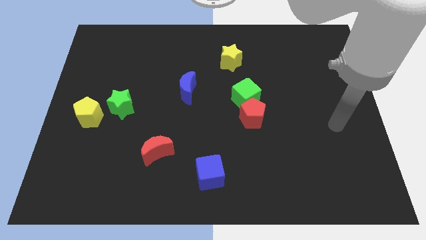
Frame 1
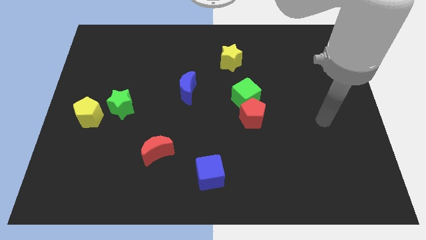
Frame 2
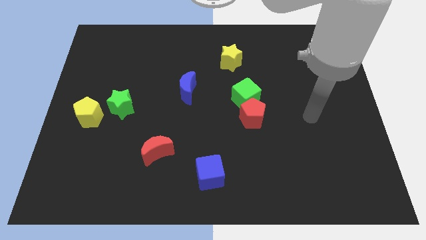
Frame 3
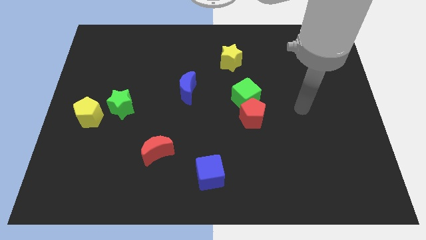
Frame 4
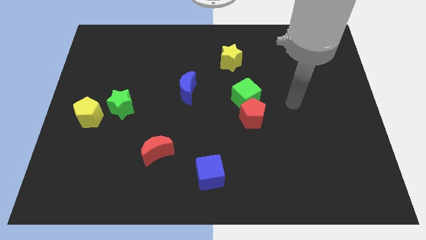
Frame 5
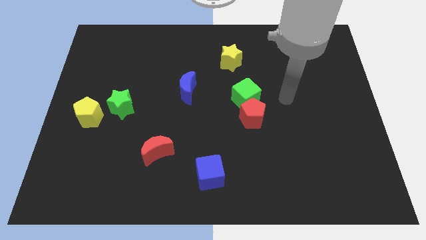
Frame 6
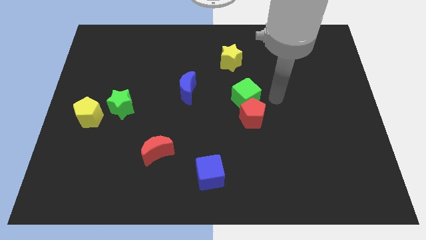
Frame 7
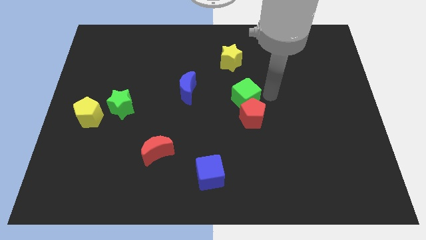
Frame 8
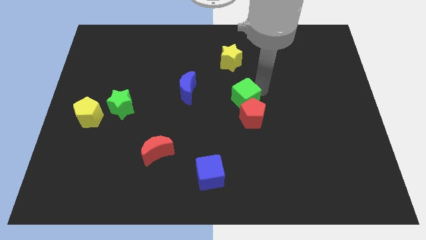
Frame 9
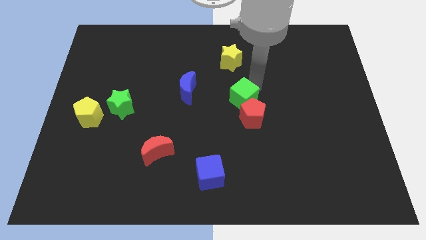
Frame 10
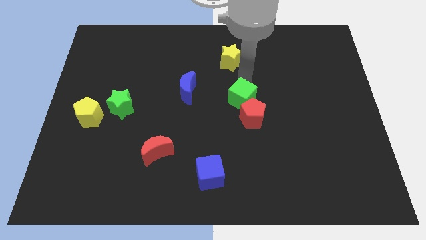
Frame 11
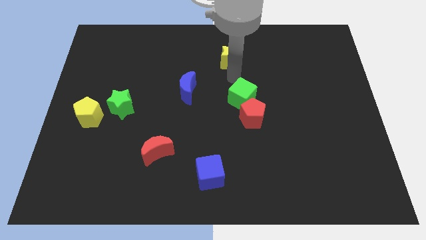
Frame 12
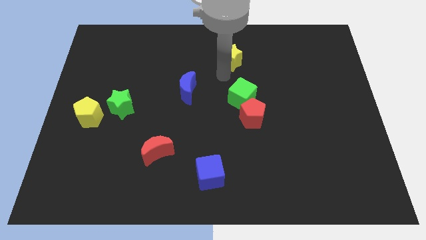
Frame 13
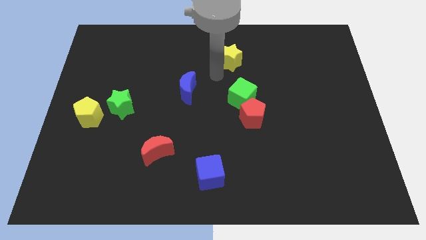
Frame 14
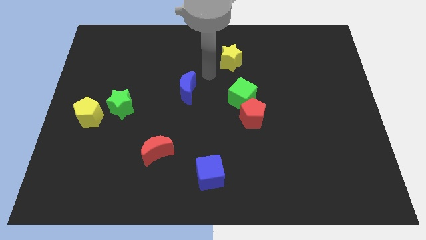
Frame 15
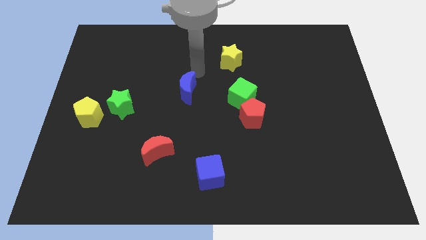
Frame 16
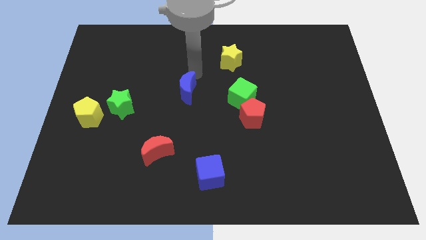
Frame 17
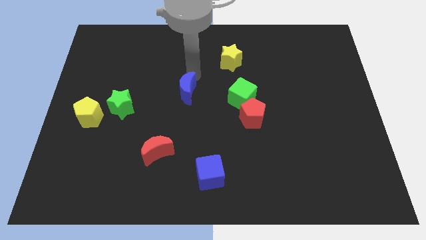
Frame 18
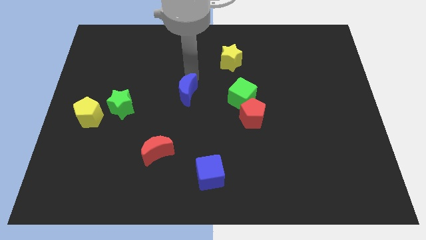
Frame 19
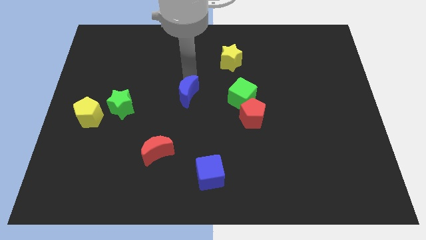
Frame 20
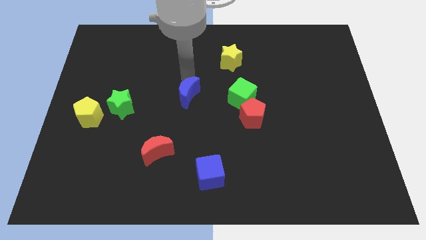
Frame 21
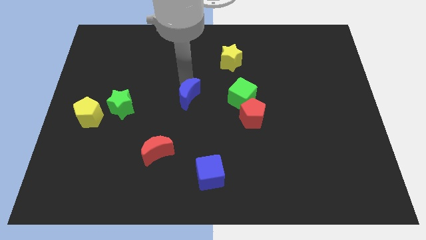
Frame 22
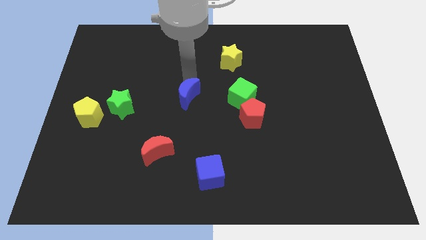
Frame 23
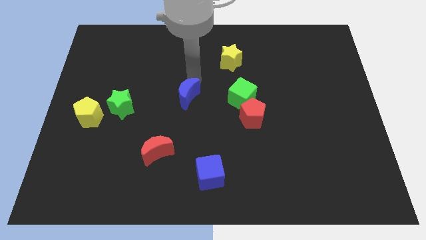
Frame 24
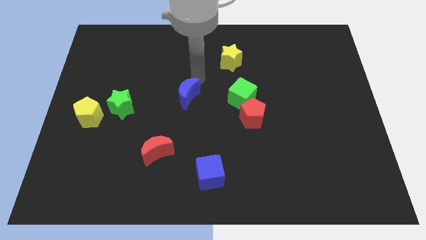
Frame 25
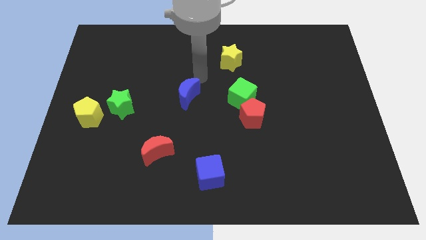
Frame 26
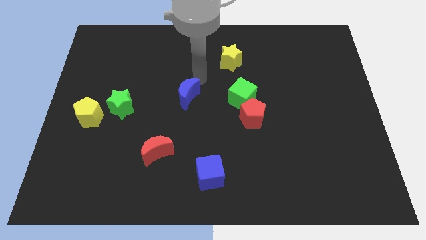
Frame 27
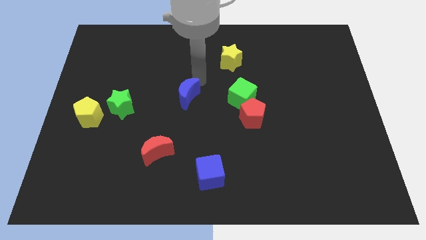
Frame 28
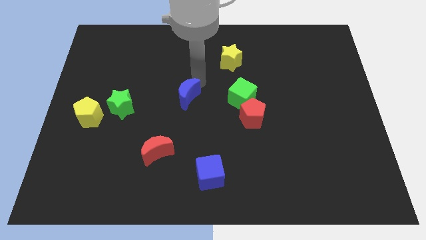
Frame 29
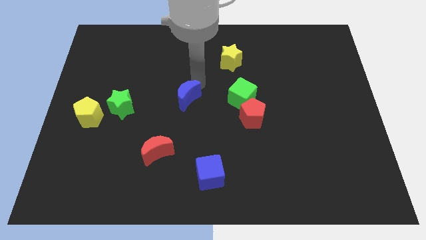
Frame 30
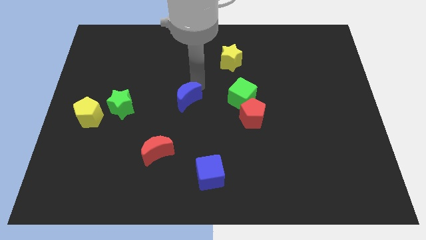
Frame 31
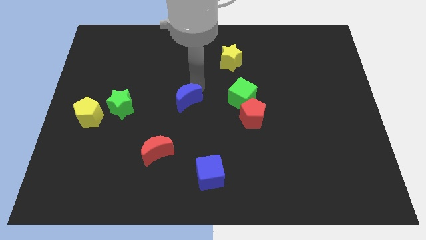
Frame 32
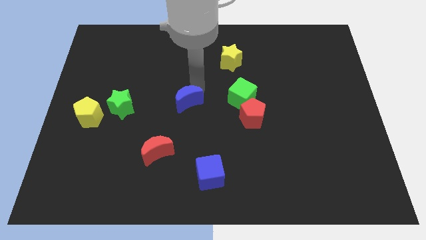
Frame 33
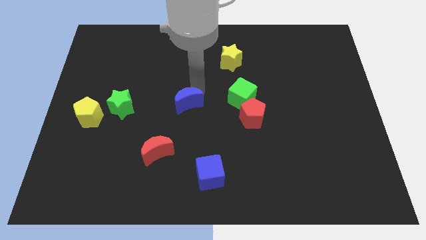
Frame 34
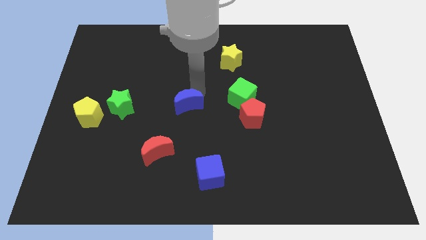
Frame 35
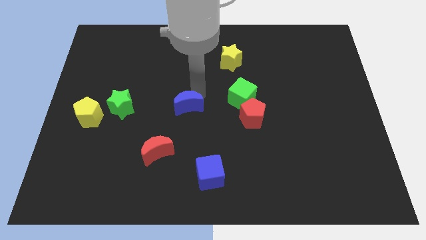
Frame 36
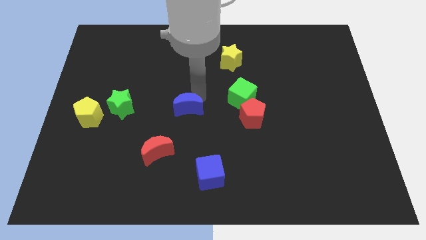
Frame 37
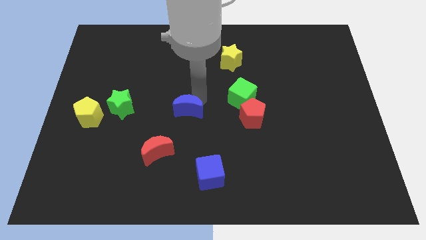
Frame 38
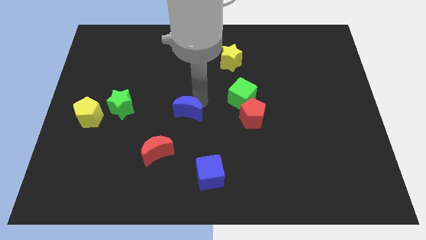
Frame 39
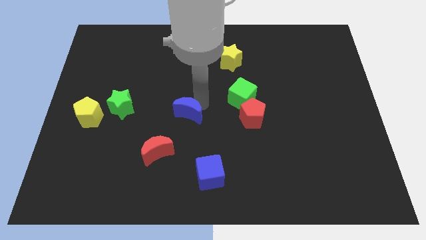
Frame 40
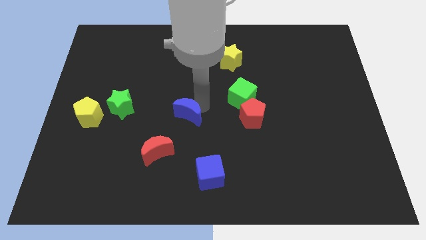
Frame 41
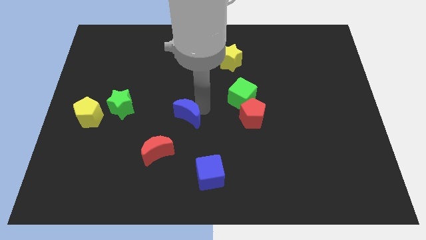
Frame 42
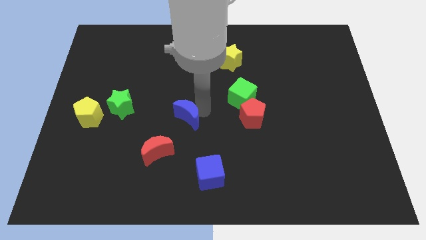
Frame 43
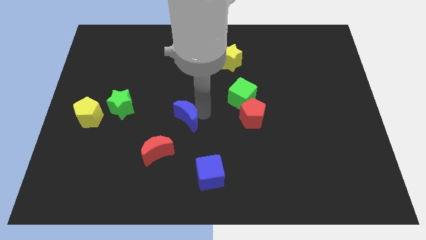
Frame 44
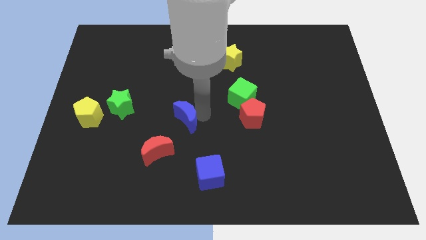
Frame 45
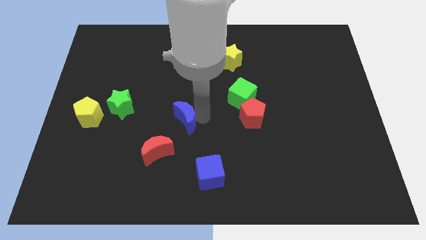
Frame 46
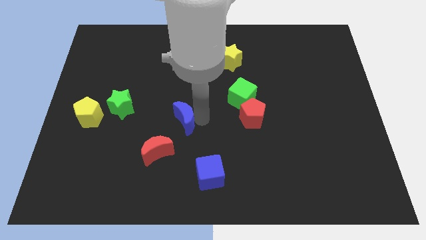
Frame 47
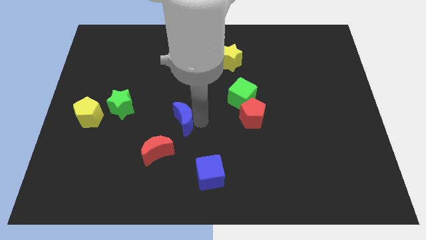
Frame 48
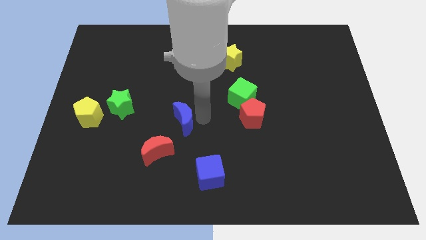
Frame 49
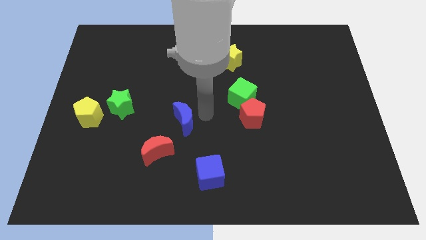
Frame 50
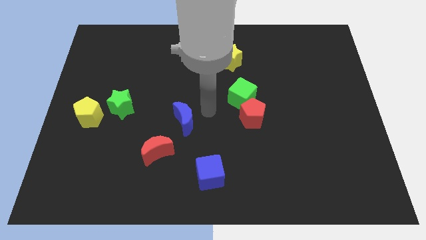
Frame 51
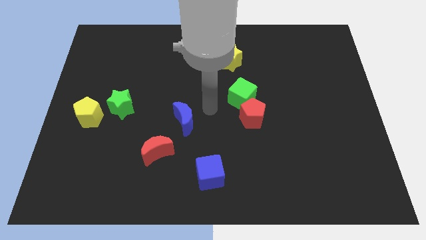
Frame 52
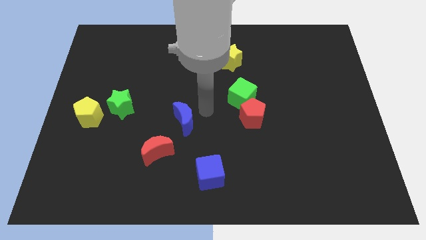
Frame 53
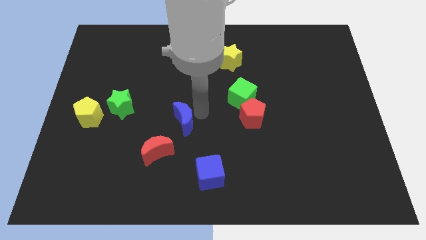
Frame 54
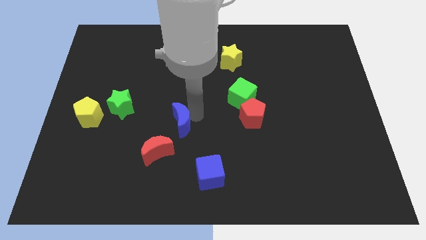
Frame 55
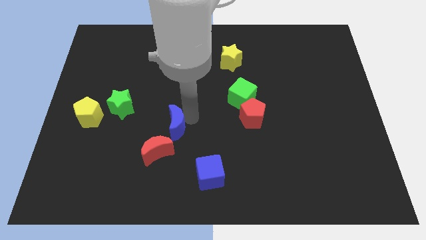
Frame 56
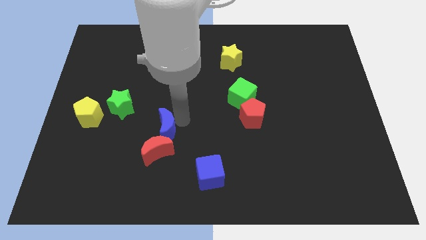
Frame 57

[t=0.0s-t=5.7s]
slide the blue moon next to the red moon

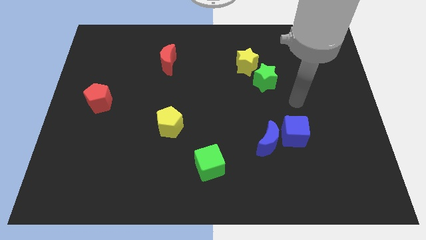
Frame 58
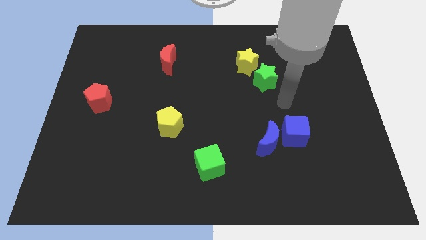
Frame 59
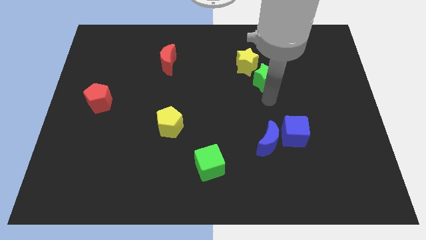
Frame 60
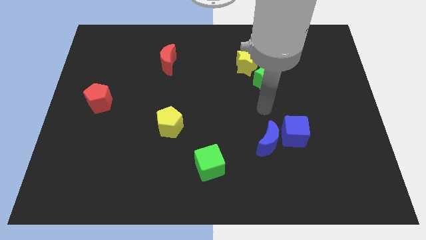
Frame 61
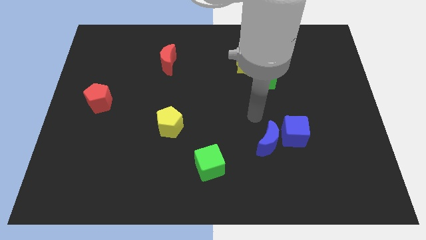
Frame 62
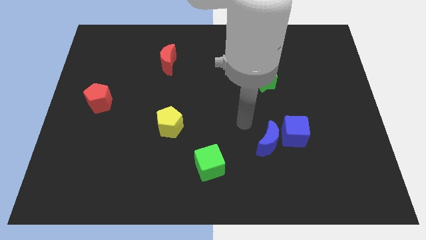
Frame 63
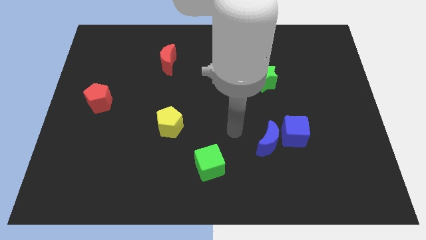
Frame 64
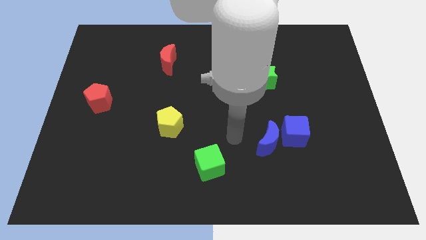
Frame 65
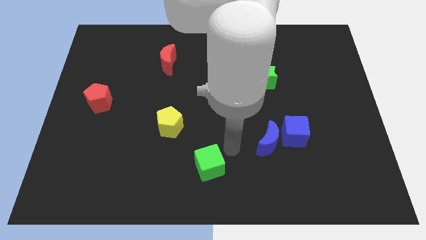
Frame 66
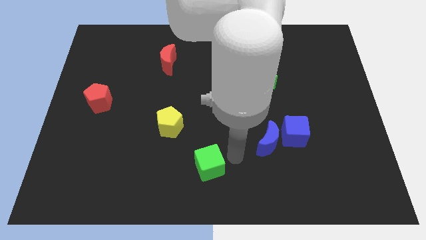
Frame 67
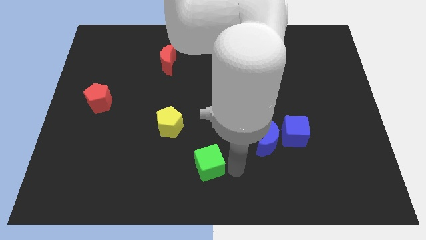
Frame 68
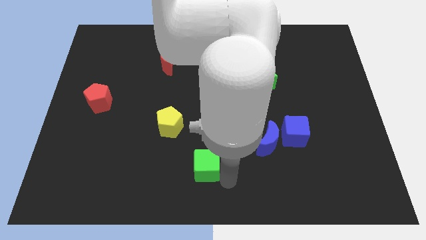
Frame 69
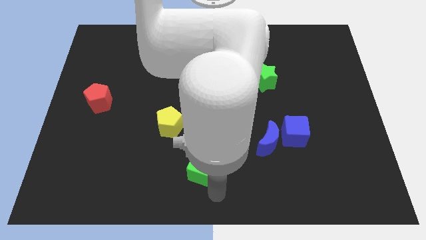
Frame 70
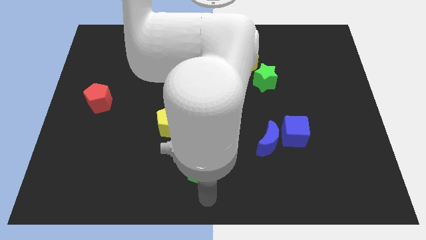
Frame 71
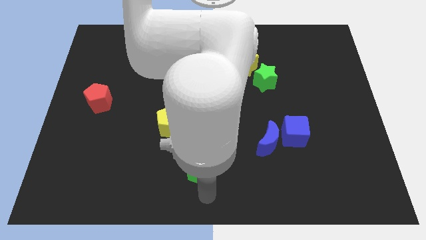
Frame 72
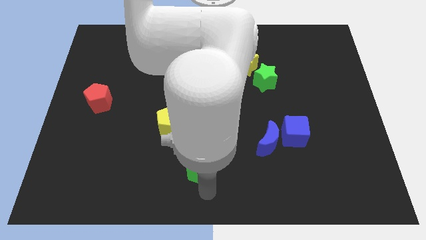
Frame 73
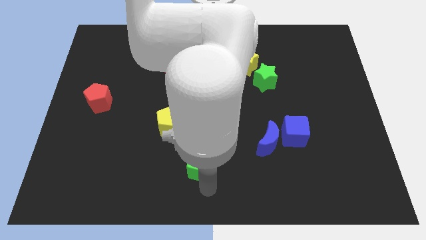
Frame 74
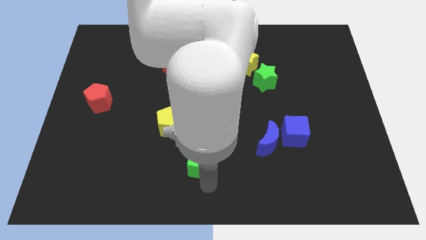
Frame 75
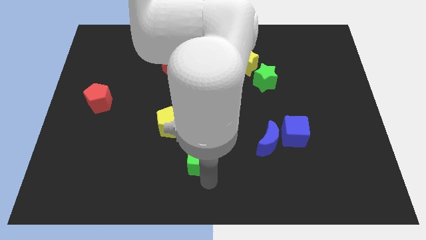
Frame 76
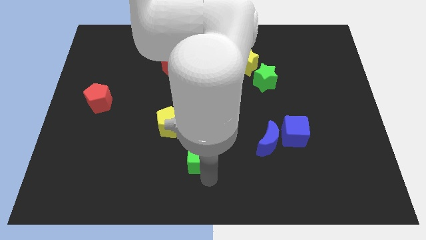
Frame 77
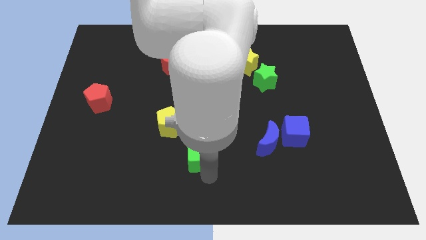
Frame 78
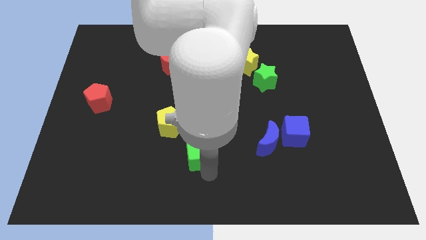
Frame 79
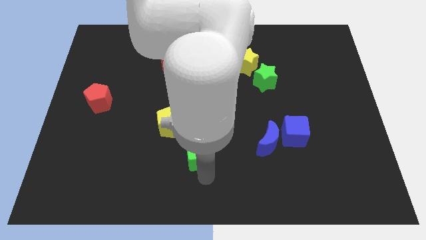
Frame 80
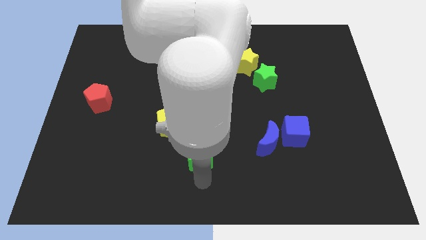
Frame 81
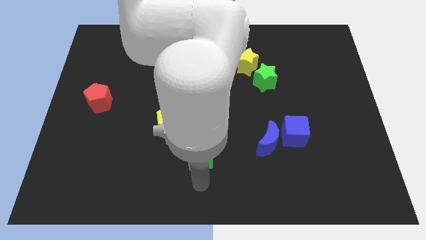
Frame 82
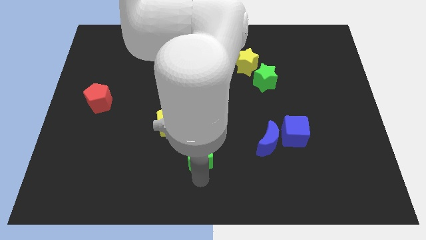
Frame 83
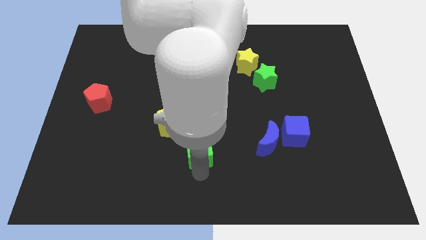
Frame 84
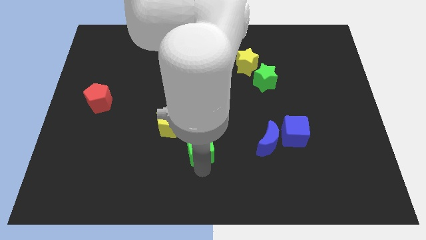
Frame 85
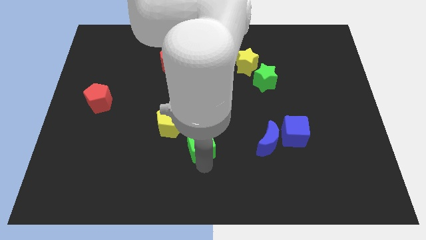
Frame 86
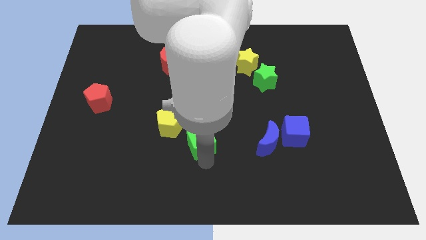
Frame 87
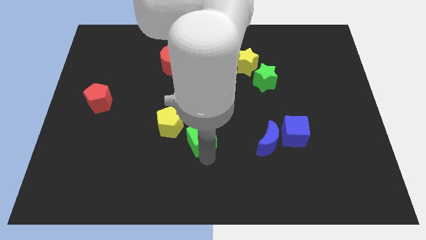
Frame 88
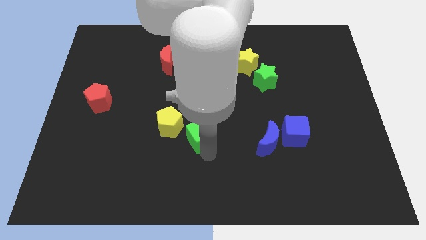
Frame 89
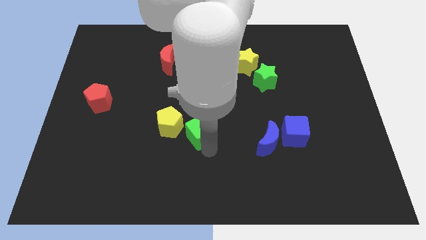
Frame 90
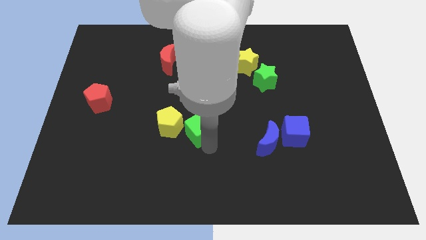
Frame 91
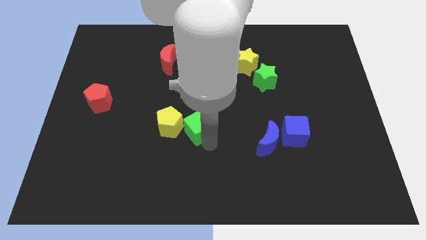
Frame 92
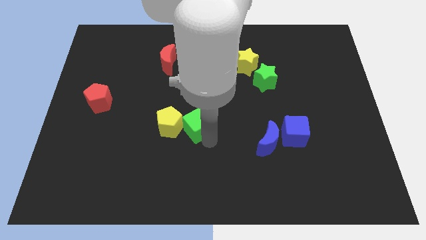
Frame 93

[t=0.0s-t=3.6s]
put the green cube close to the yellow pentagon
